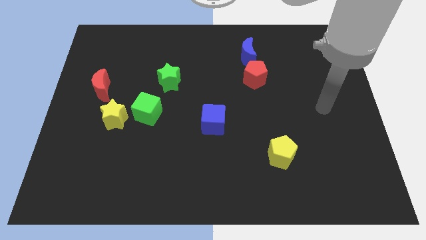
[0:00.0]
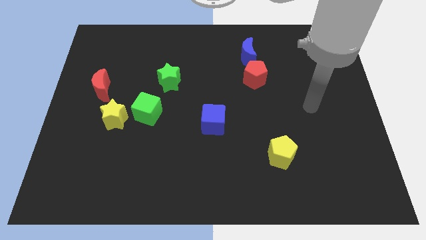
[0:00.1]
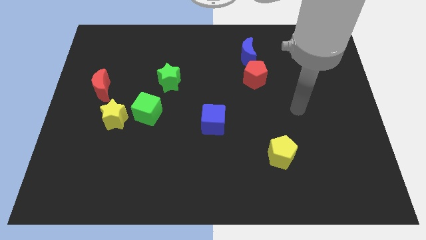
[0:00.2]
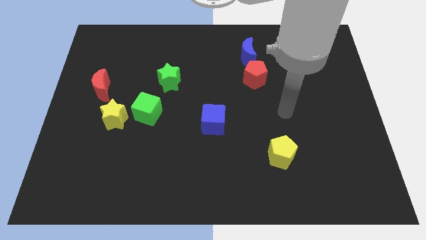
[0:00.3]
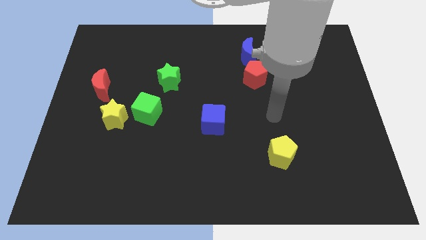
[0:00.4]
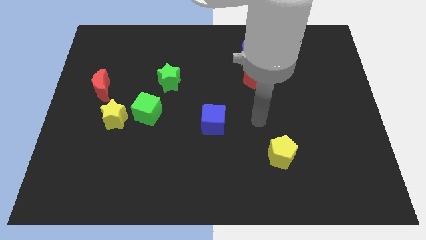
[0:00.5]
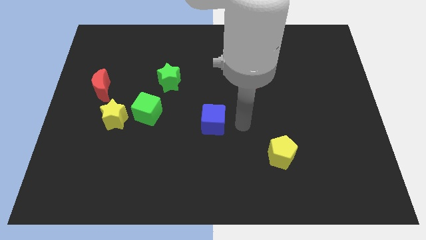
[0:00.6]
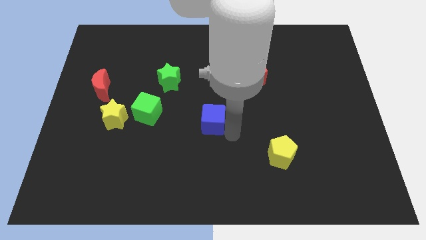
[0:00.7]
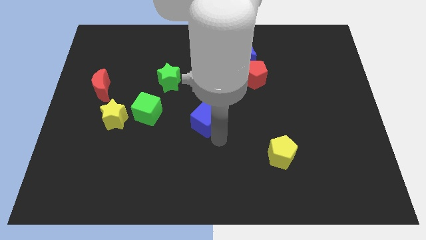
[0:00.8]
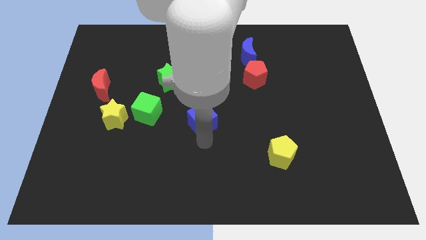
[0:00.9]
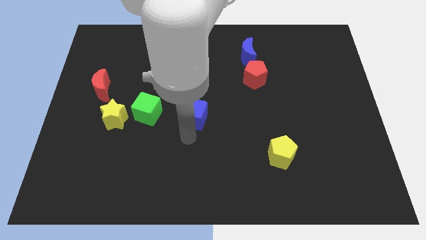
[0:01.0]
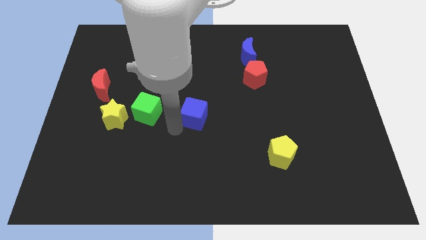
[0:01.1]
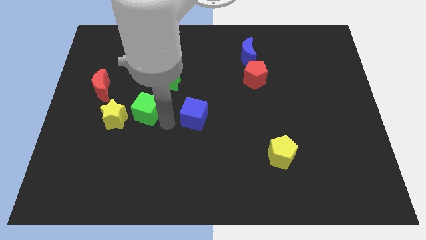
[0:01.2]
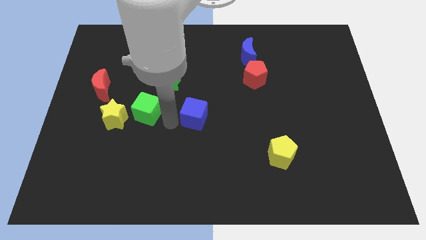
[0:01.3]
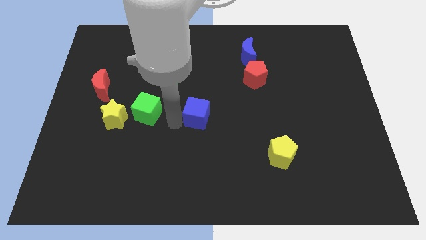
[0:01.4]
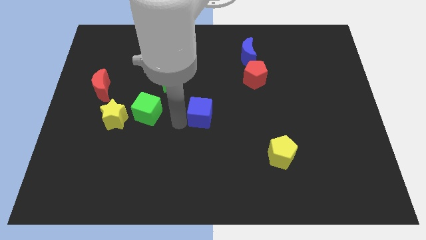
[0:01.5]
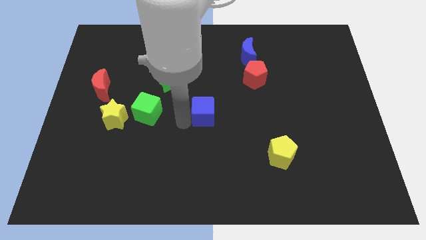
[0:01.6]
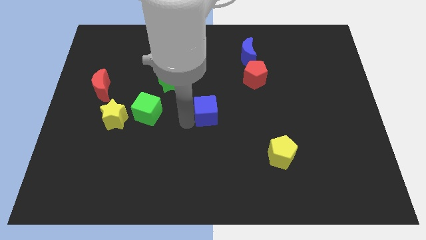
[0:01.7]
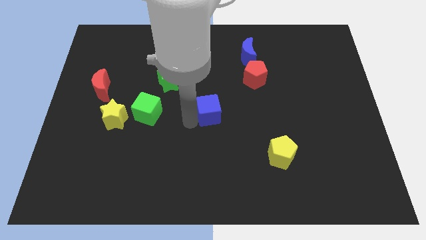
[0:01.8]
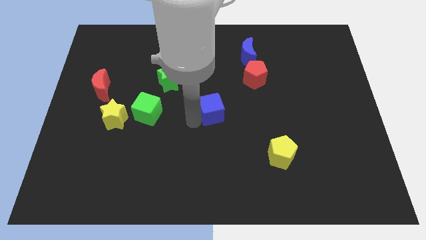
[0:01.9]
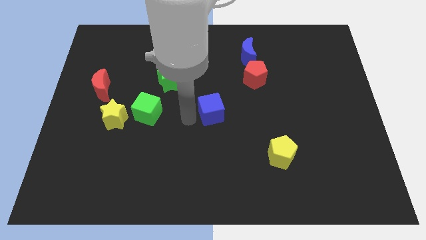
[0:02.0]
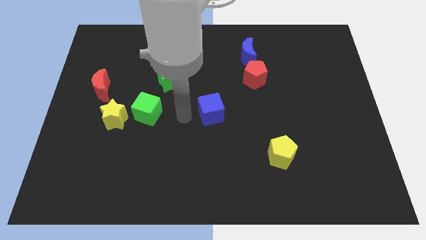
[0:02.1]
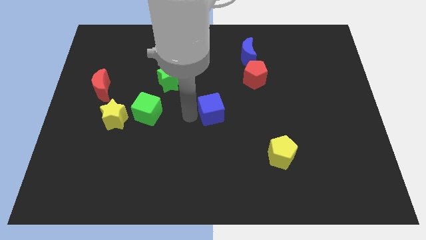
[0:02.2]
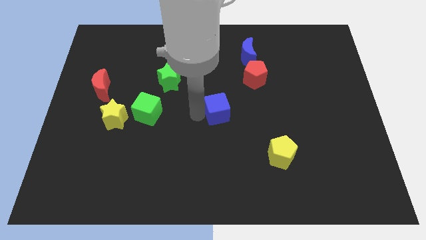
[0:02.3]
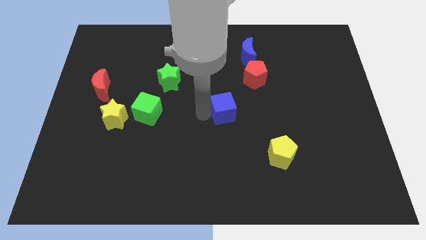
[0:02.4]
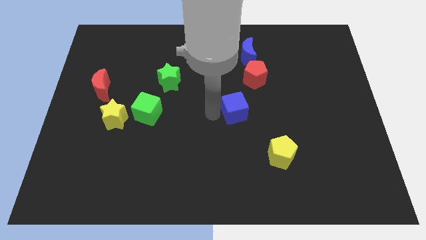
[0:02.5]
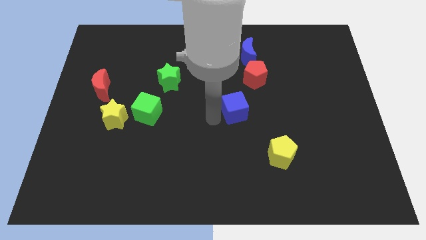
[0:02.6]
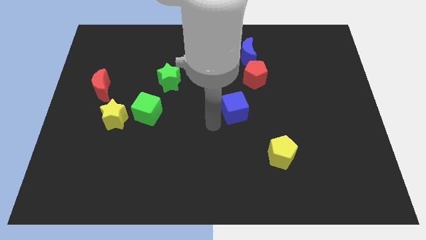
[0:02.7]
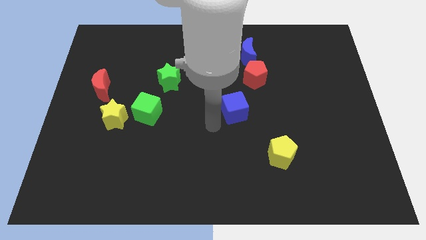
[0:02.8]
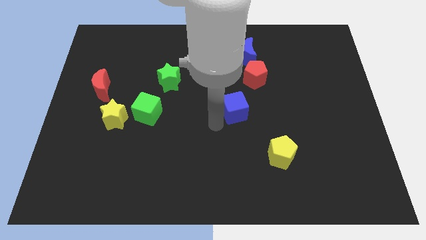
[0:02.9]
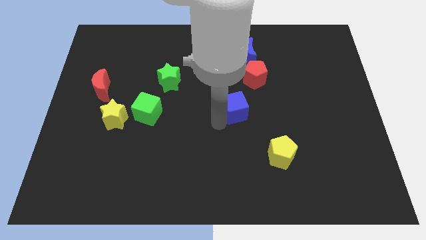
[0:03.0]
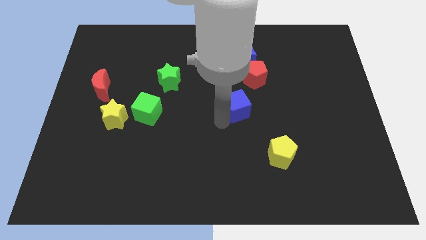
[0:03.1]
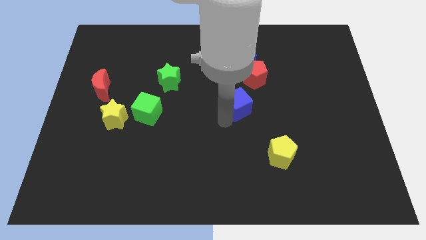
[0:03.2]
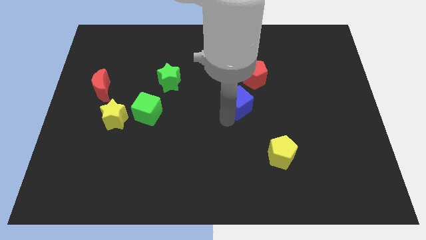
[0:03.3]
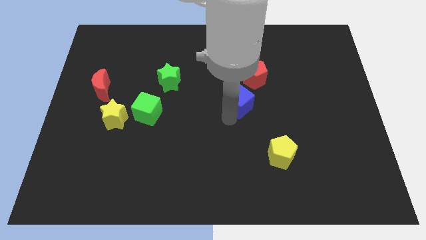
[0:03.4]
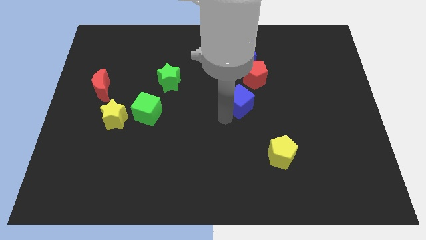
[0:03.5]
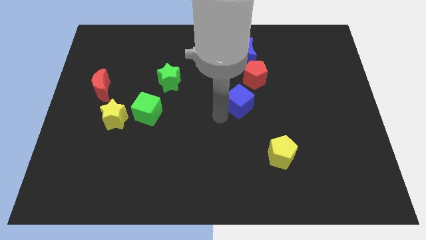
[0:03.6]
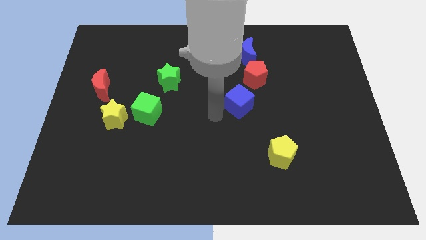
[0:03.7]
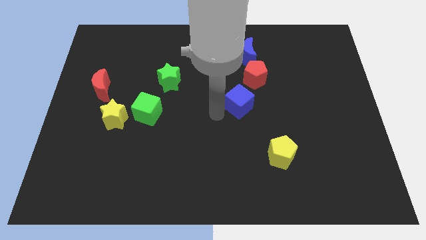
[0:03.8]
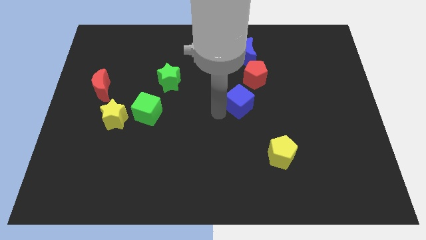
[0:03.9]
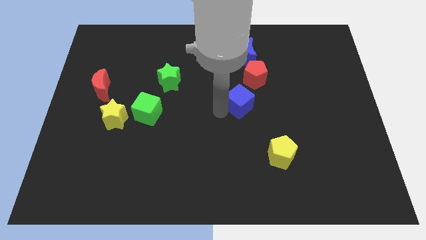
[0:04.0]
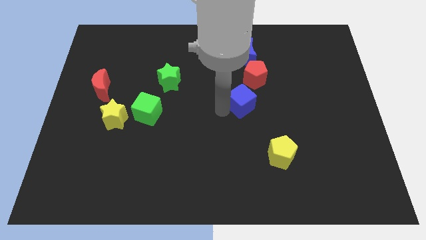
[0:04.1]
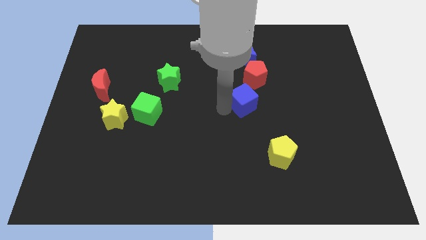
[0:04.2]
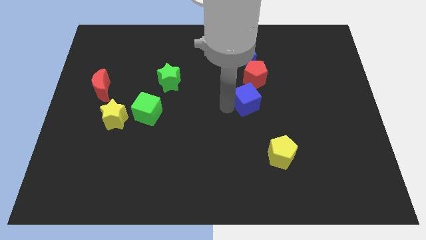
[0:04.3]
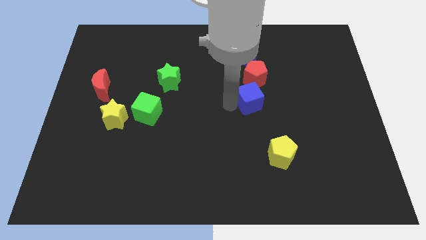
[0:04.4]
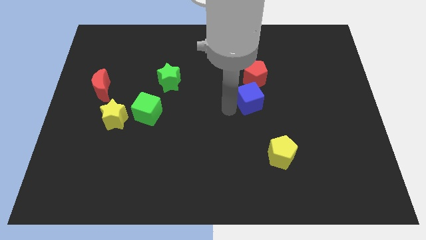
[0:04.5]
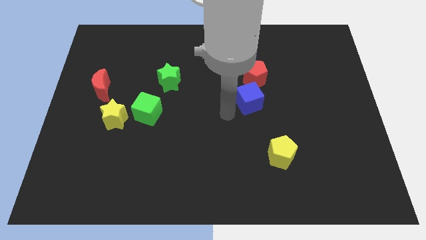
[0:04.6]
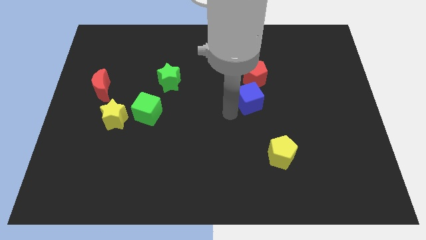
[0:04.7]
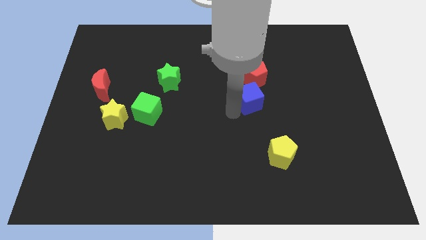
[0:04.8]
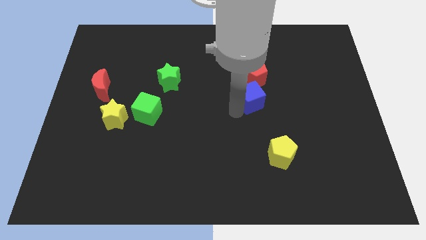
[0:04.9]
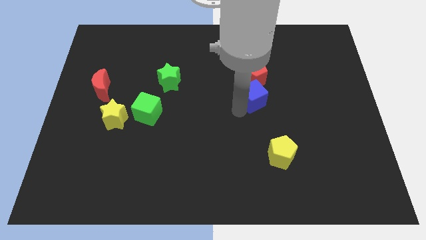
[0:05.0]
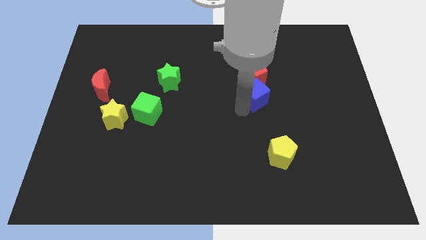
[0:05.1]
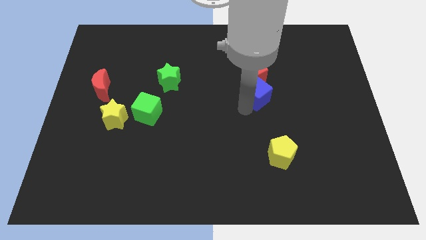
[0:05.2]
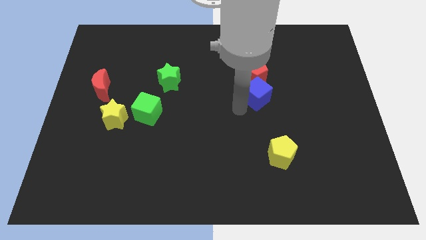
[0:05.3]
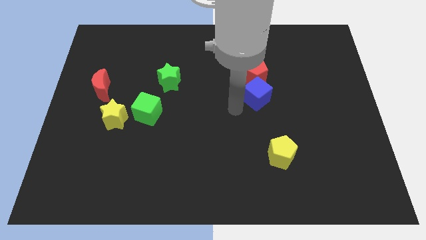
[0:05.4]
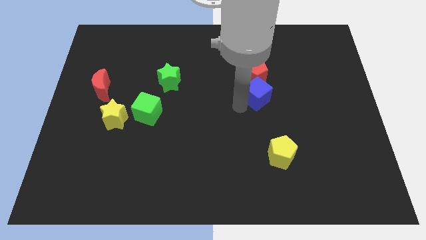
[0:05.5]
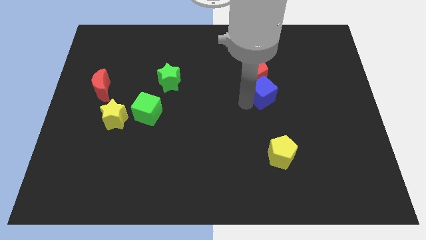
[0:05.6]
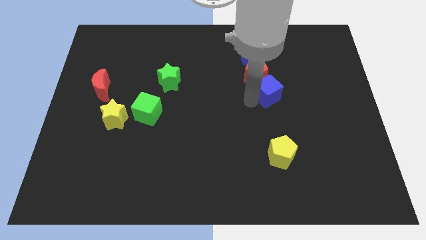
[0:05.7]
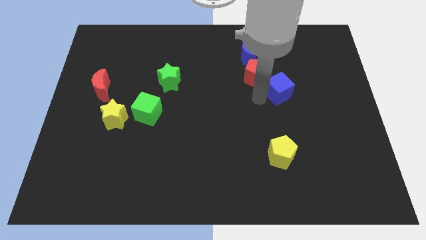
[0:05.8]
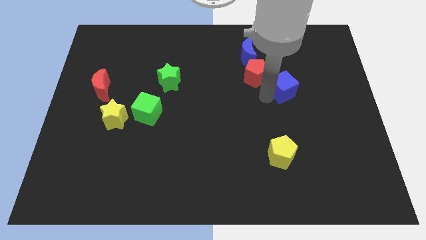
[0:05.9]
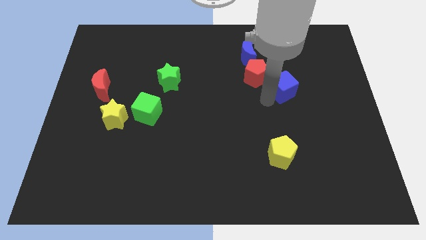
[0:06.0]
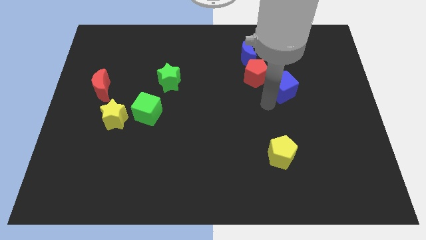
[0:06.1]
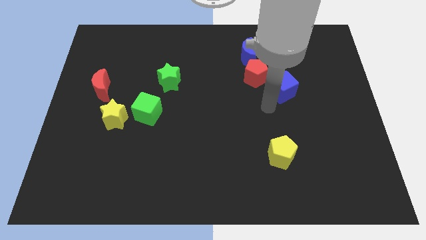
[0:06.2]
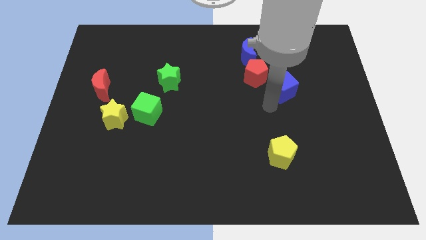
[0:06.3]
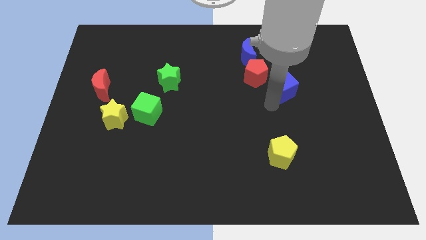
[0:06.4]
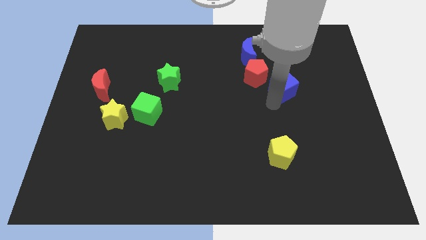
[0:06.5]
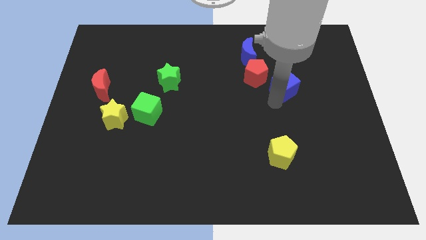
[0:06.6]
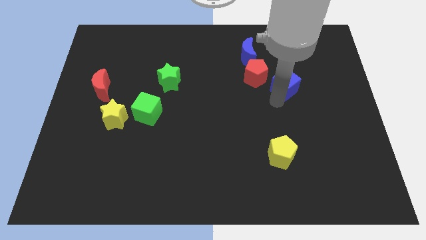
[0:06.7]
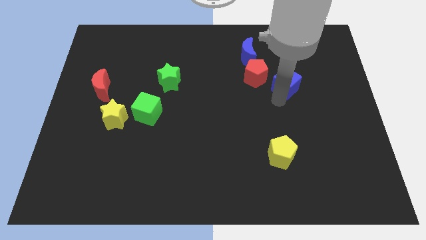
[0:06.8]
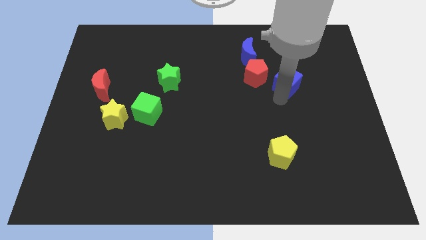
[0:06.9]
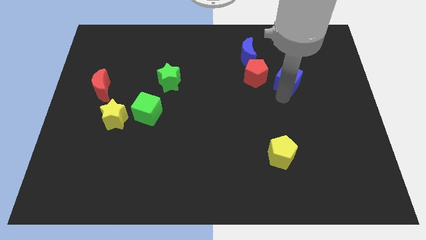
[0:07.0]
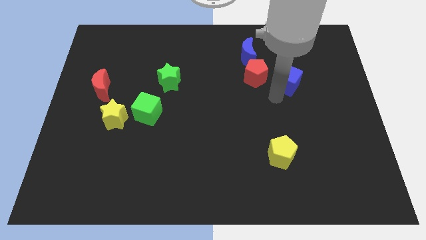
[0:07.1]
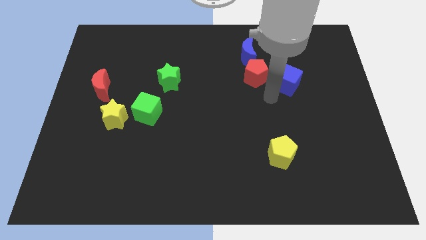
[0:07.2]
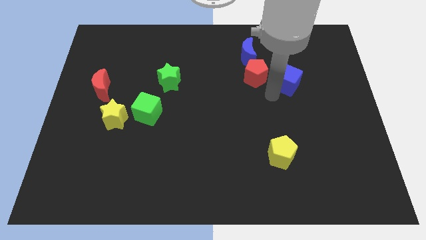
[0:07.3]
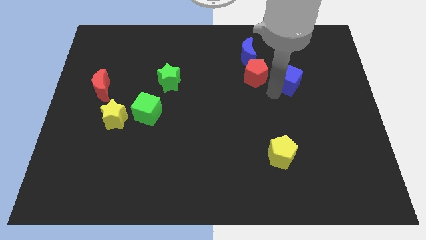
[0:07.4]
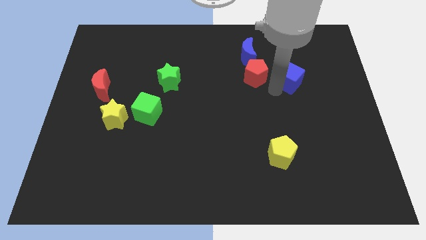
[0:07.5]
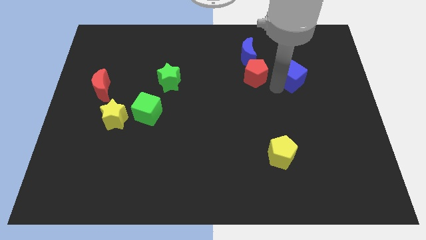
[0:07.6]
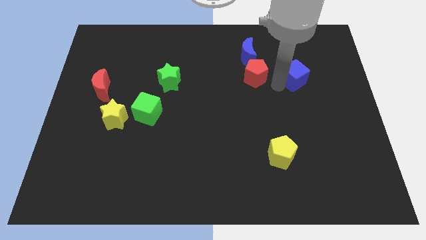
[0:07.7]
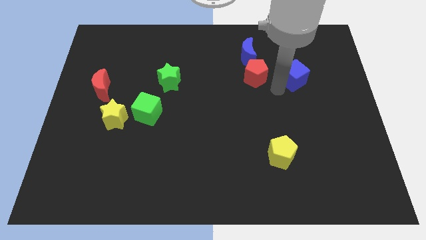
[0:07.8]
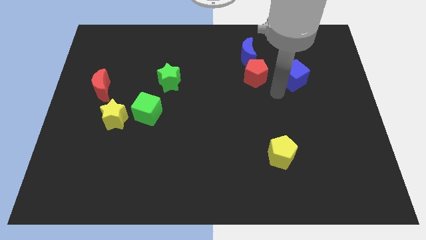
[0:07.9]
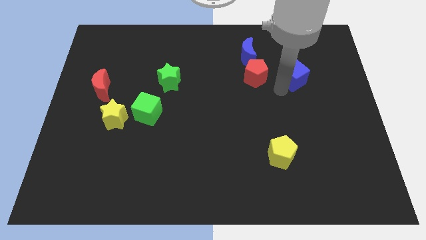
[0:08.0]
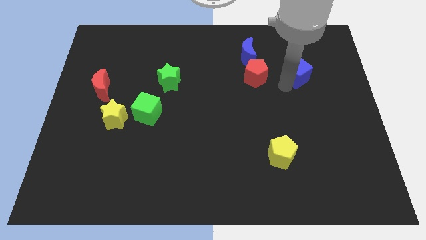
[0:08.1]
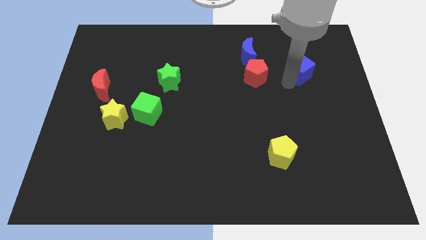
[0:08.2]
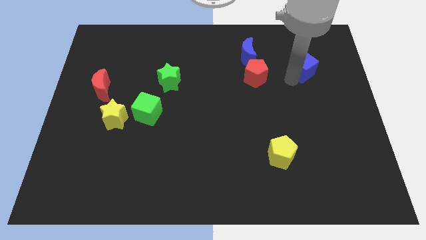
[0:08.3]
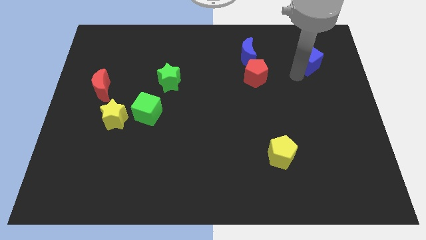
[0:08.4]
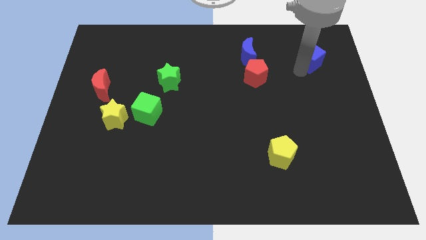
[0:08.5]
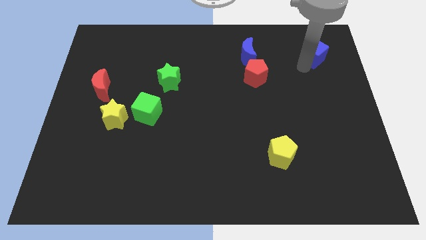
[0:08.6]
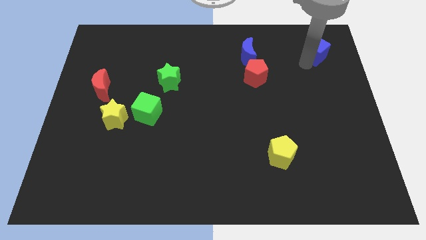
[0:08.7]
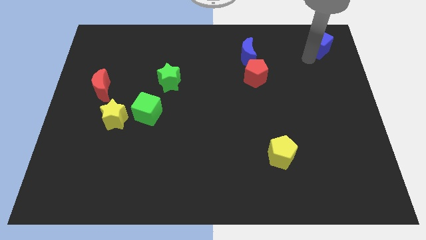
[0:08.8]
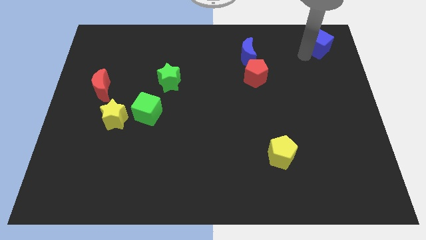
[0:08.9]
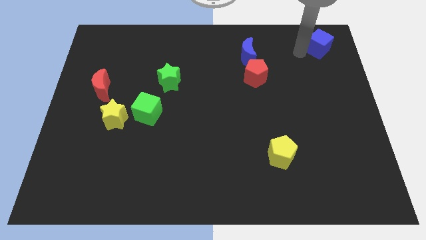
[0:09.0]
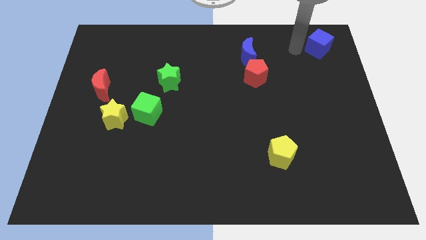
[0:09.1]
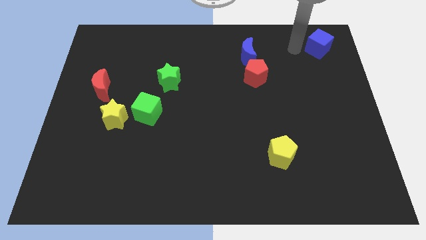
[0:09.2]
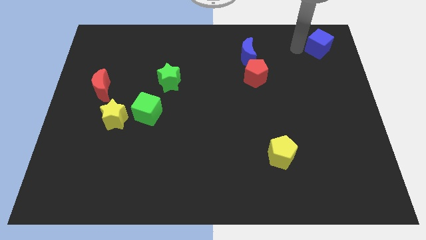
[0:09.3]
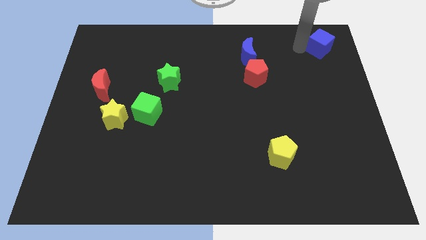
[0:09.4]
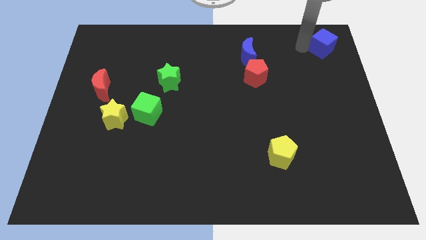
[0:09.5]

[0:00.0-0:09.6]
slide the blue cube to the top right of the board
